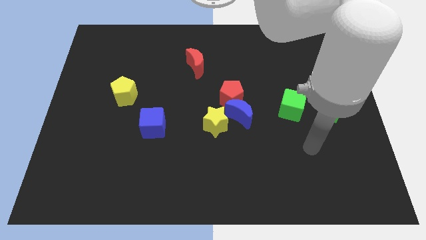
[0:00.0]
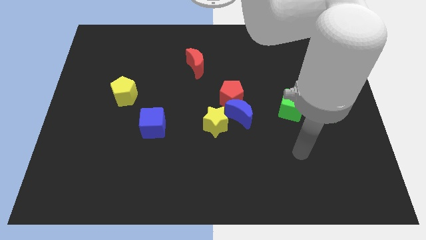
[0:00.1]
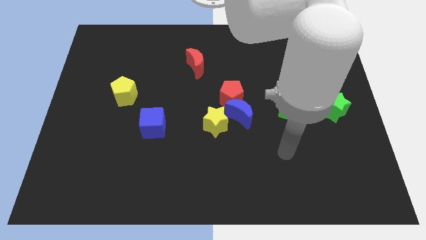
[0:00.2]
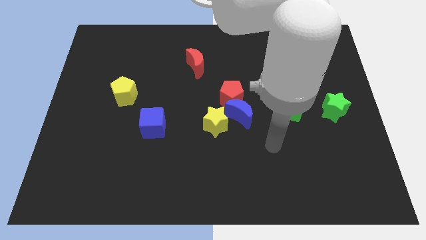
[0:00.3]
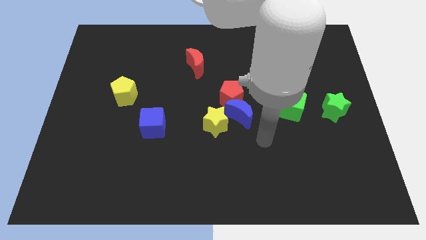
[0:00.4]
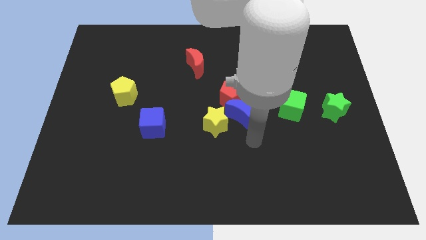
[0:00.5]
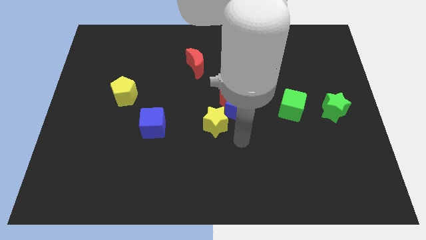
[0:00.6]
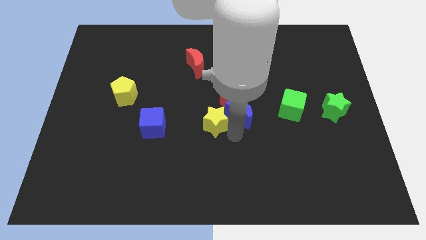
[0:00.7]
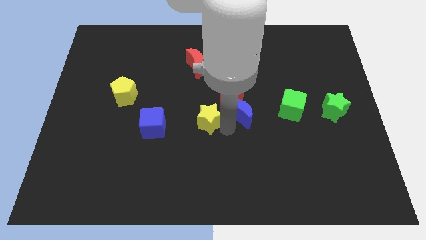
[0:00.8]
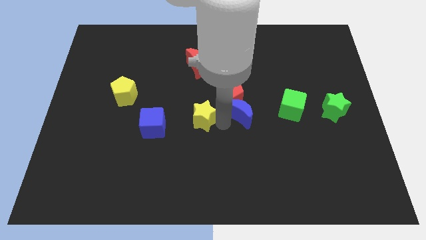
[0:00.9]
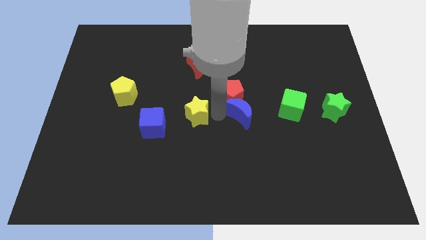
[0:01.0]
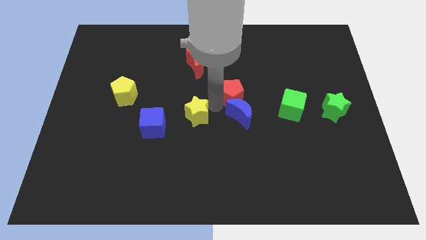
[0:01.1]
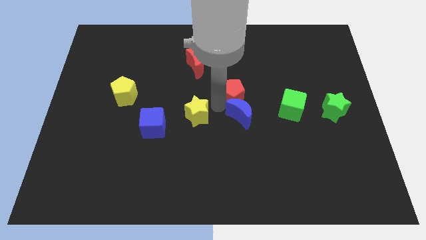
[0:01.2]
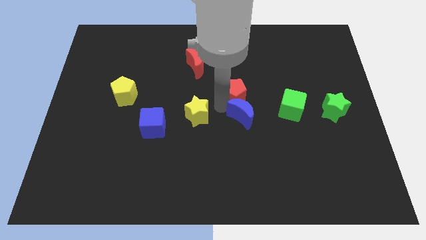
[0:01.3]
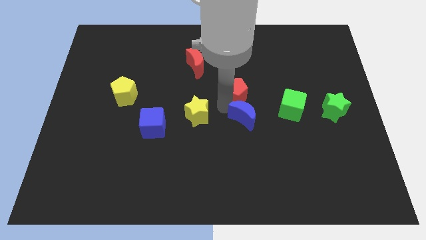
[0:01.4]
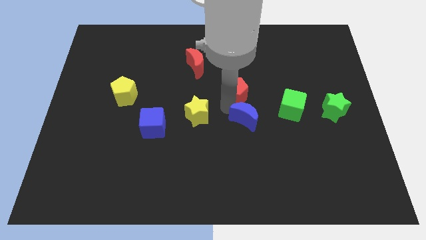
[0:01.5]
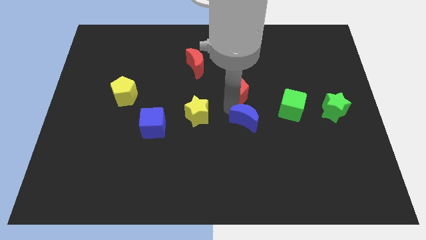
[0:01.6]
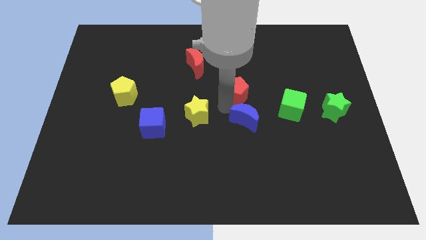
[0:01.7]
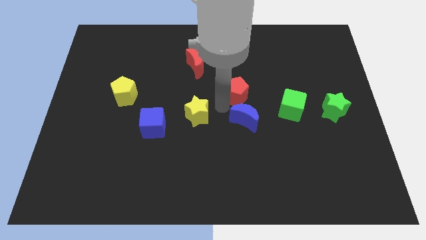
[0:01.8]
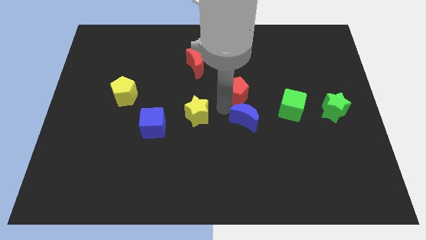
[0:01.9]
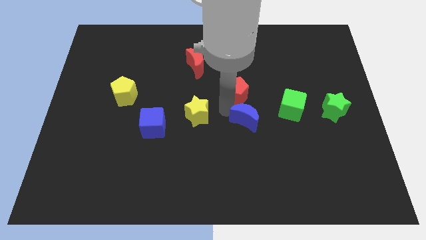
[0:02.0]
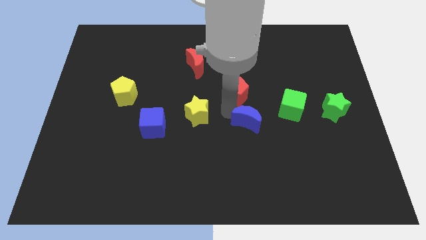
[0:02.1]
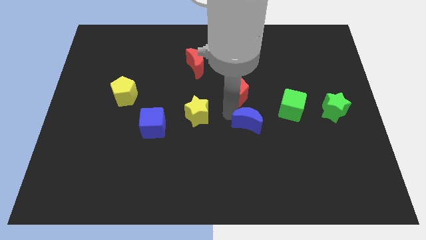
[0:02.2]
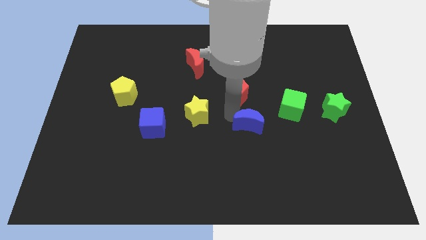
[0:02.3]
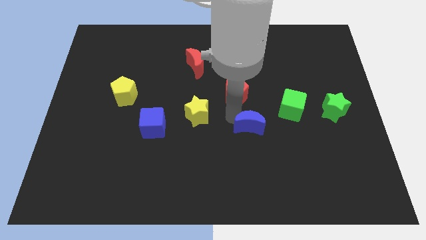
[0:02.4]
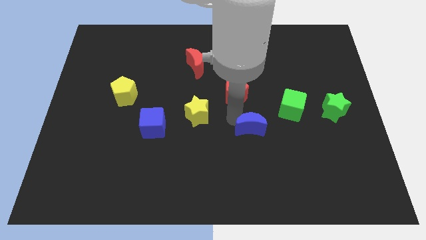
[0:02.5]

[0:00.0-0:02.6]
move the blue moon away from the red pentagon and yellow star

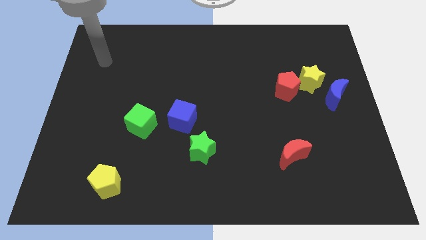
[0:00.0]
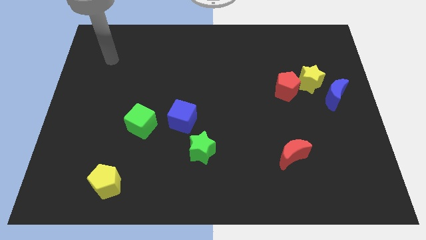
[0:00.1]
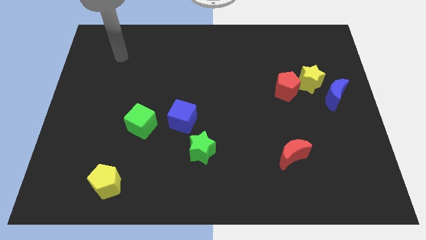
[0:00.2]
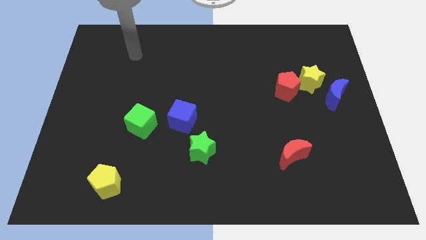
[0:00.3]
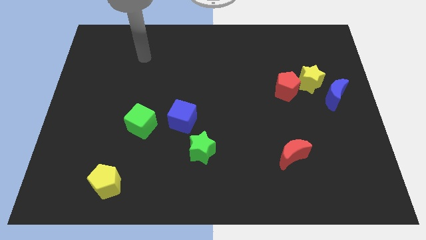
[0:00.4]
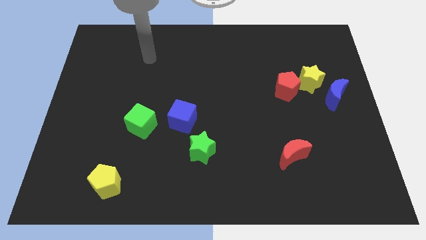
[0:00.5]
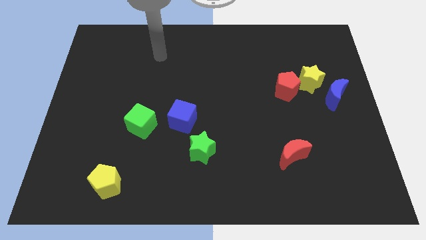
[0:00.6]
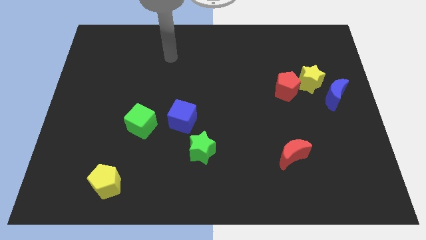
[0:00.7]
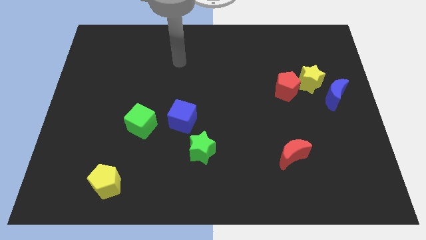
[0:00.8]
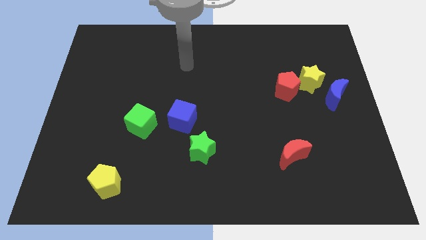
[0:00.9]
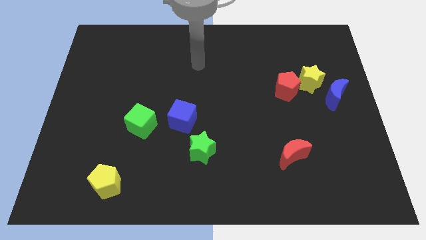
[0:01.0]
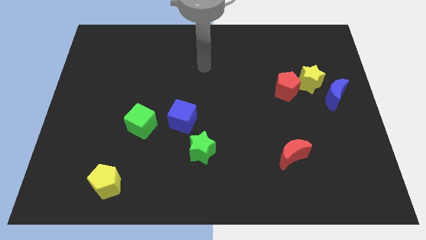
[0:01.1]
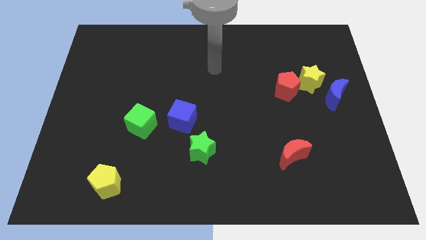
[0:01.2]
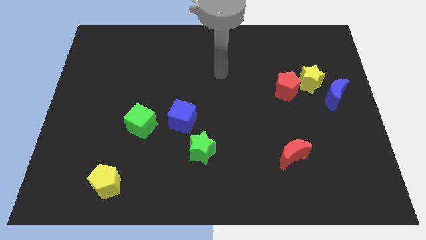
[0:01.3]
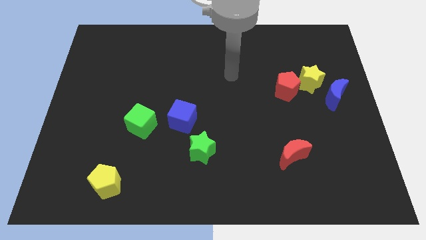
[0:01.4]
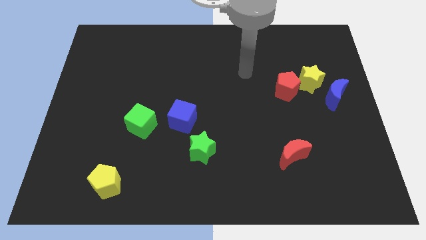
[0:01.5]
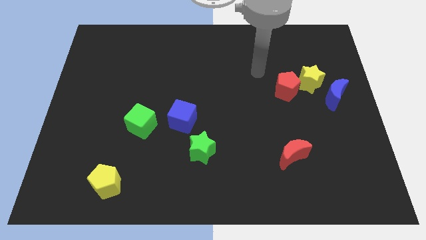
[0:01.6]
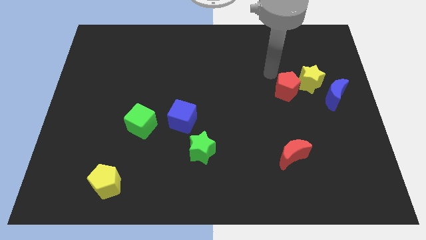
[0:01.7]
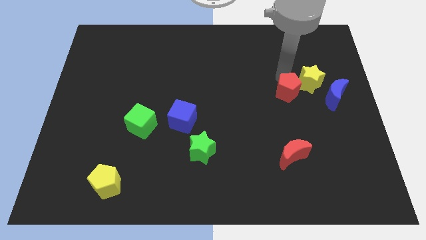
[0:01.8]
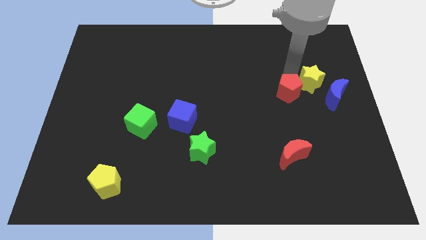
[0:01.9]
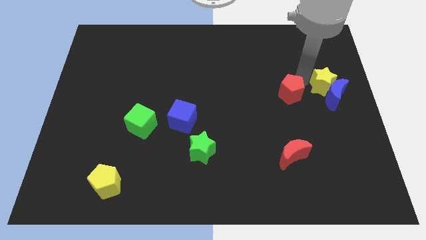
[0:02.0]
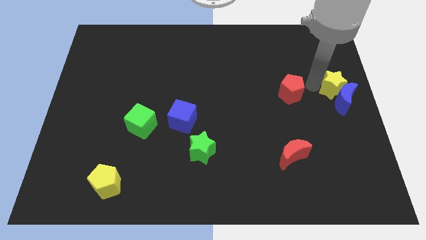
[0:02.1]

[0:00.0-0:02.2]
separate the red pentagon from the yellow star

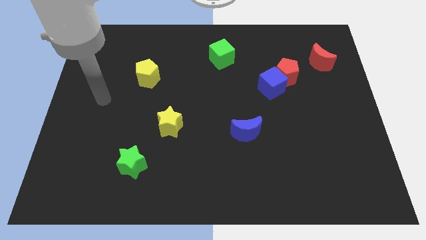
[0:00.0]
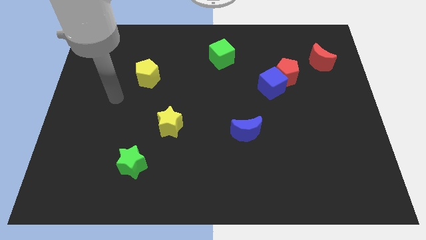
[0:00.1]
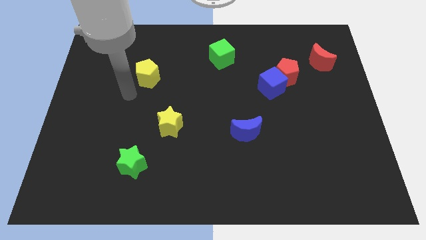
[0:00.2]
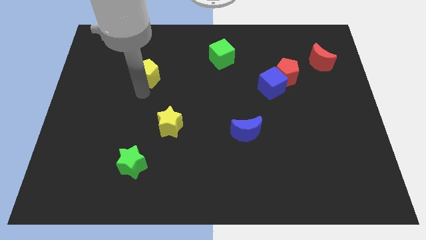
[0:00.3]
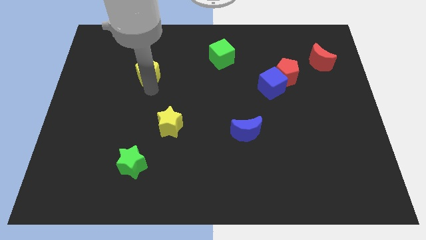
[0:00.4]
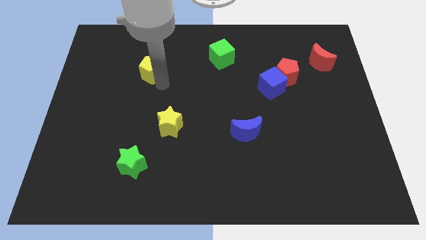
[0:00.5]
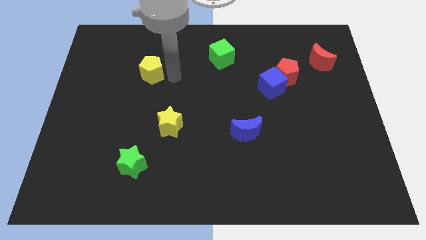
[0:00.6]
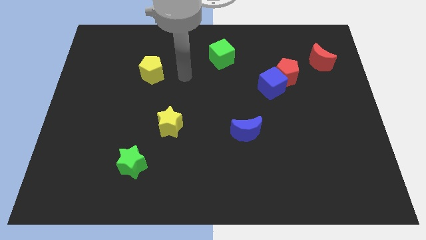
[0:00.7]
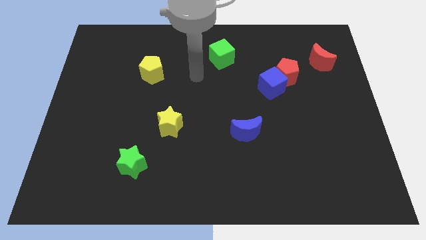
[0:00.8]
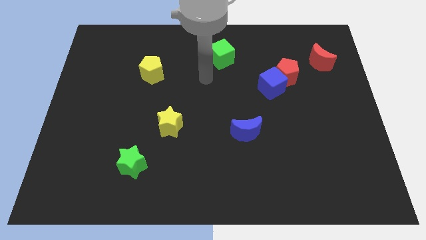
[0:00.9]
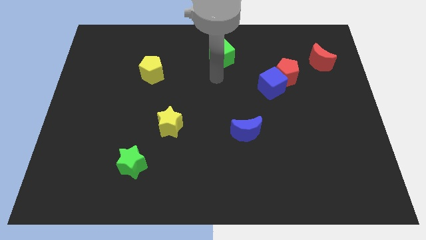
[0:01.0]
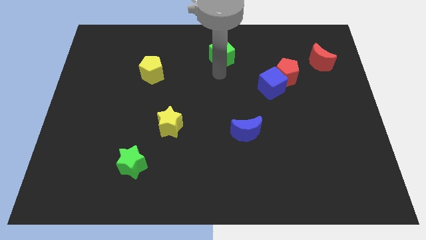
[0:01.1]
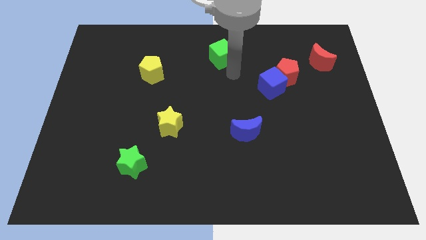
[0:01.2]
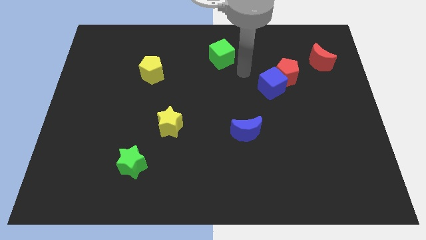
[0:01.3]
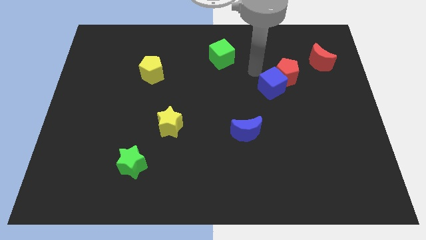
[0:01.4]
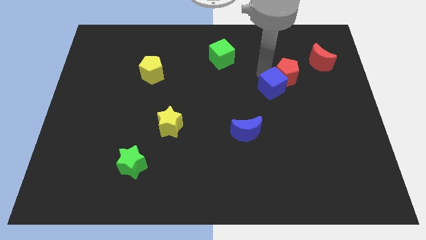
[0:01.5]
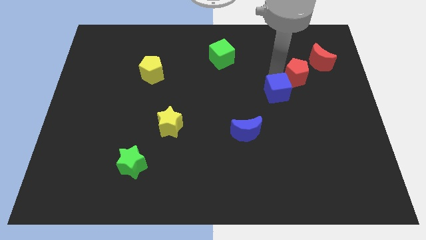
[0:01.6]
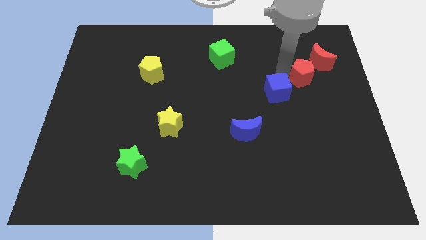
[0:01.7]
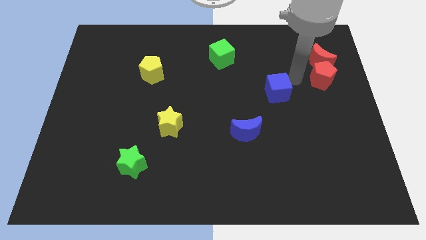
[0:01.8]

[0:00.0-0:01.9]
pull the blue cube apart from the red pentagon

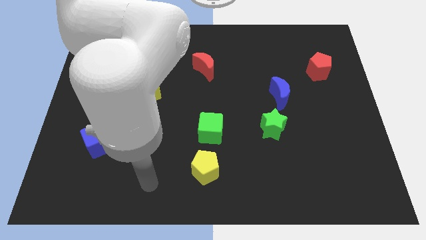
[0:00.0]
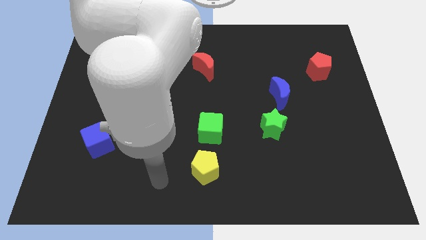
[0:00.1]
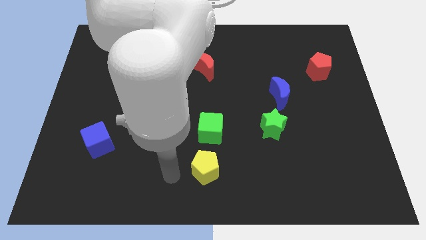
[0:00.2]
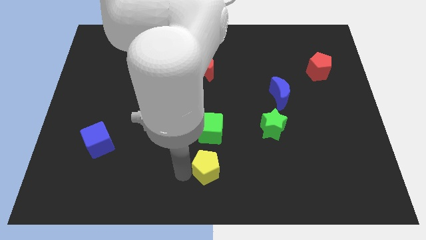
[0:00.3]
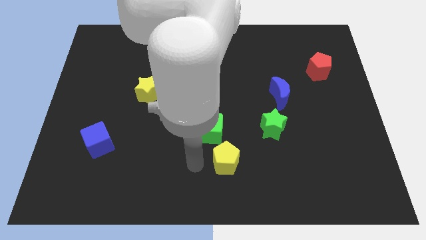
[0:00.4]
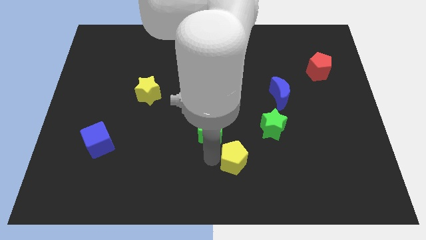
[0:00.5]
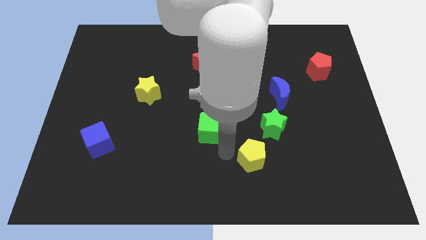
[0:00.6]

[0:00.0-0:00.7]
separate the green cube from the yellow pentagon

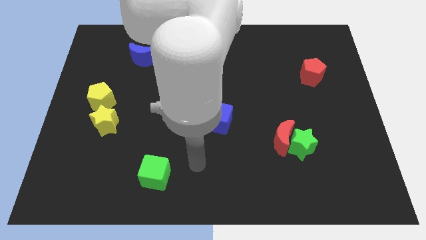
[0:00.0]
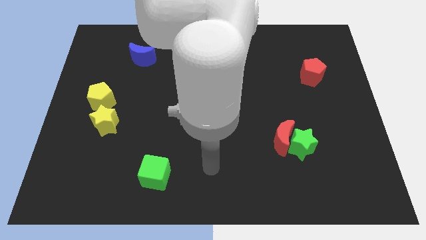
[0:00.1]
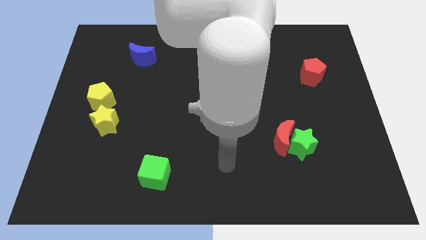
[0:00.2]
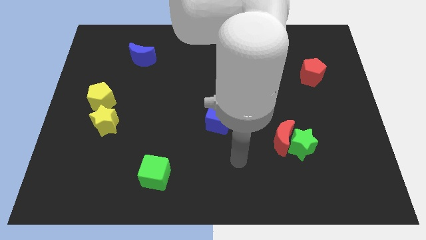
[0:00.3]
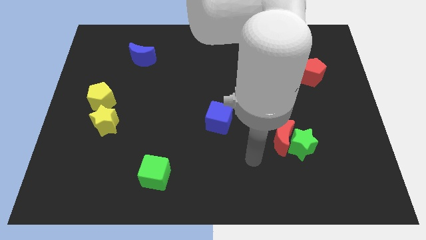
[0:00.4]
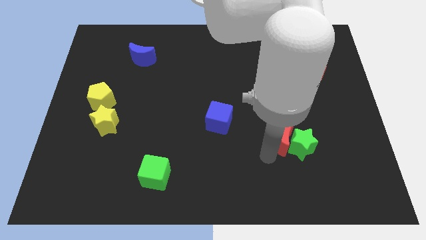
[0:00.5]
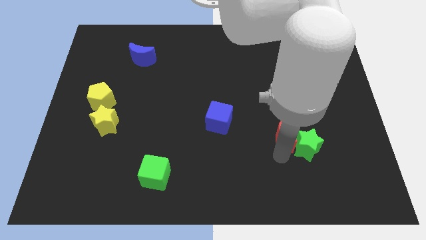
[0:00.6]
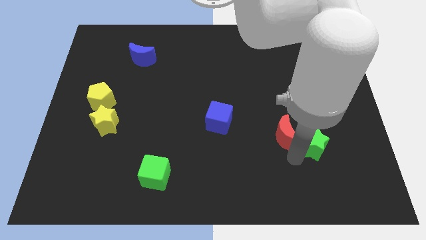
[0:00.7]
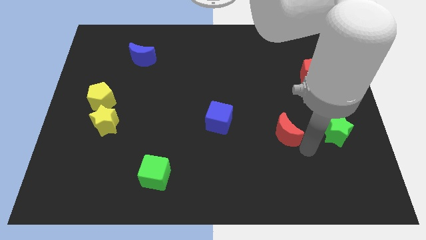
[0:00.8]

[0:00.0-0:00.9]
move the red moon away from the green star

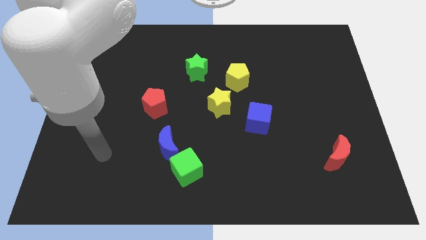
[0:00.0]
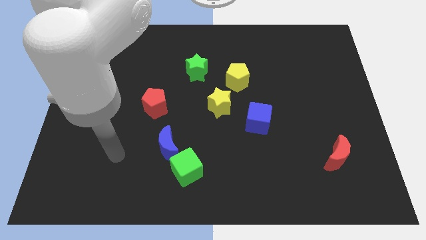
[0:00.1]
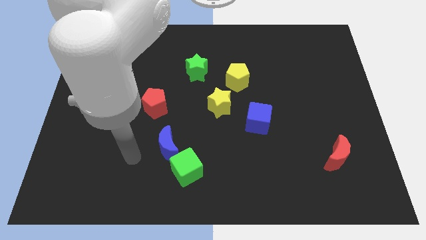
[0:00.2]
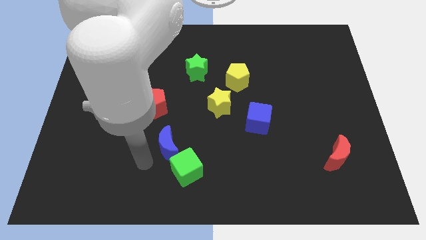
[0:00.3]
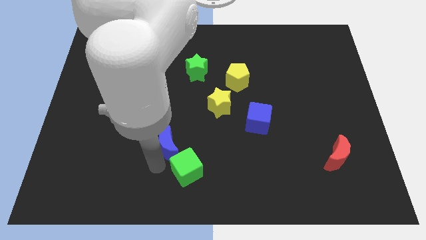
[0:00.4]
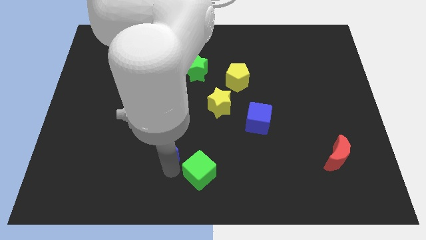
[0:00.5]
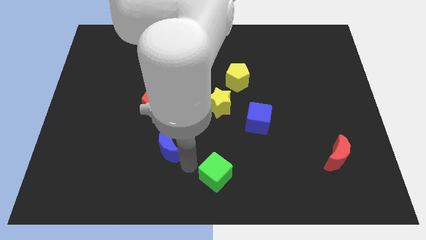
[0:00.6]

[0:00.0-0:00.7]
separate the blue moon from the green cube
